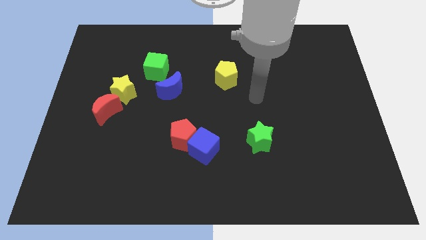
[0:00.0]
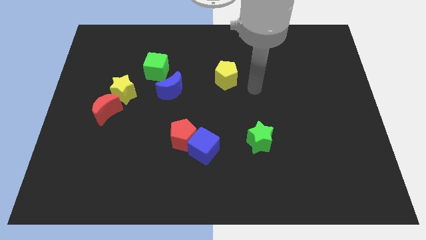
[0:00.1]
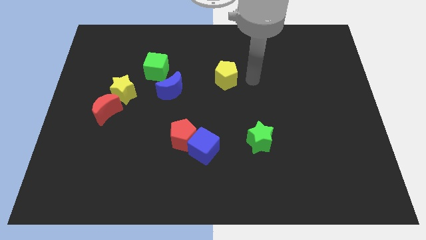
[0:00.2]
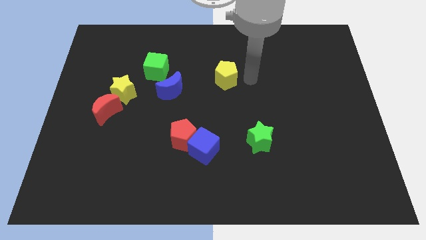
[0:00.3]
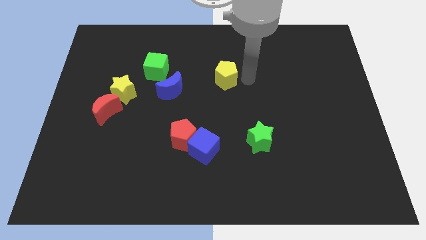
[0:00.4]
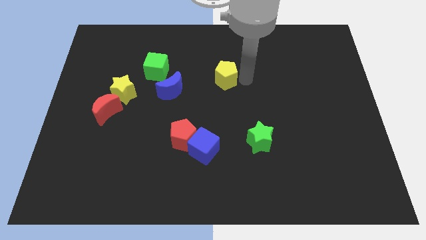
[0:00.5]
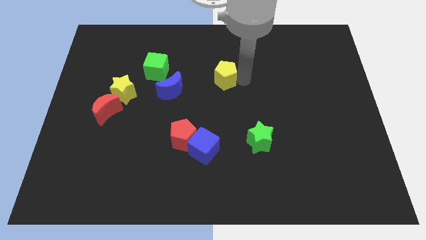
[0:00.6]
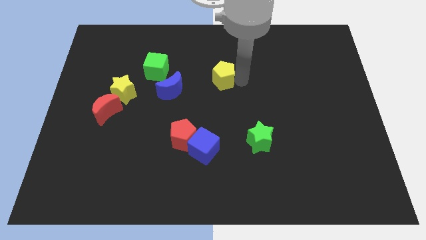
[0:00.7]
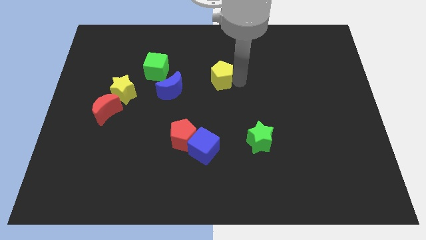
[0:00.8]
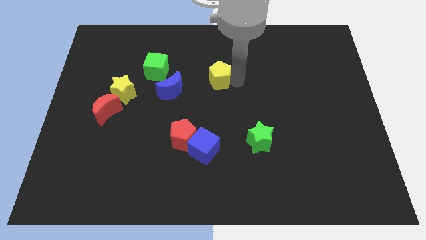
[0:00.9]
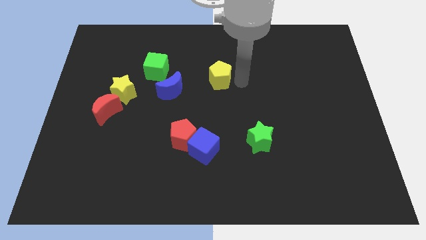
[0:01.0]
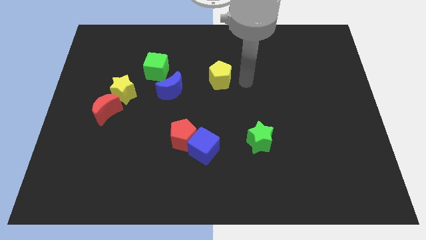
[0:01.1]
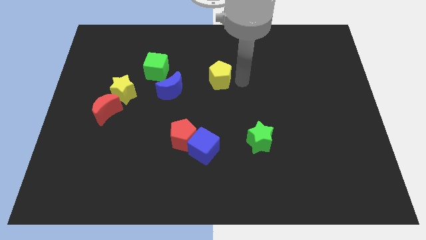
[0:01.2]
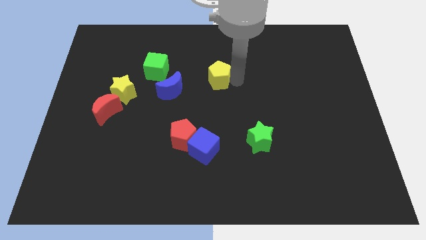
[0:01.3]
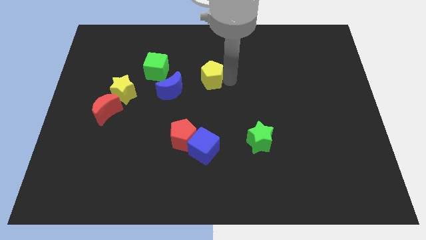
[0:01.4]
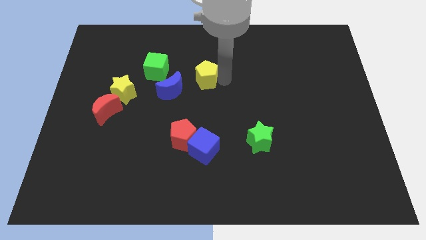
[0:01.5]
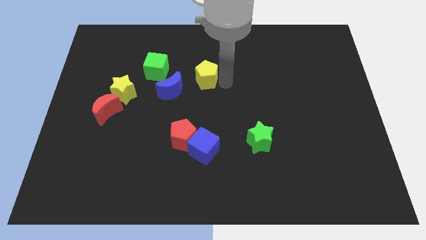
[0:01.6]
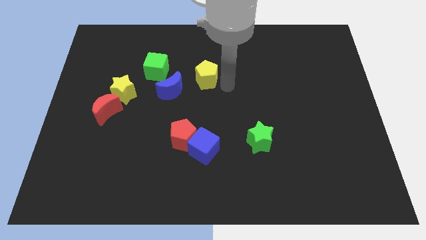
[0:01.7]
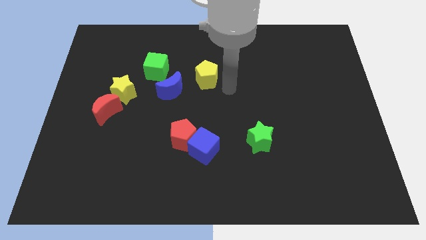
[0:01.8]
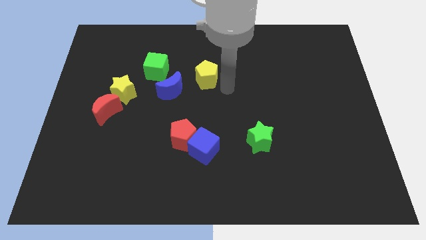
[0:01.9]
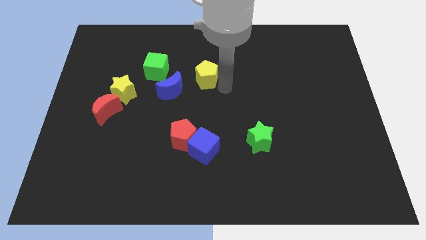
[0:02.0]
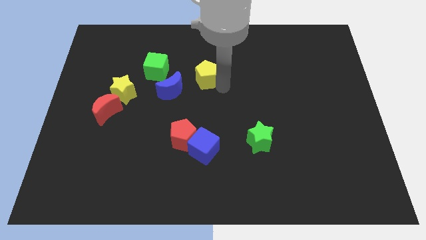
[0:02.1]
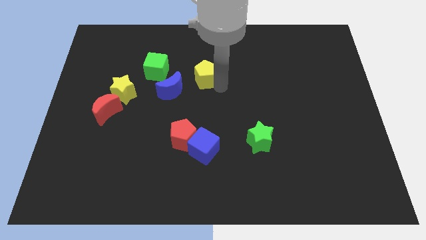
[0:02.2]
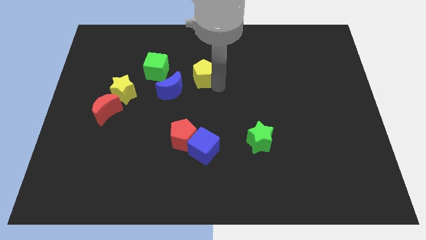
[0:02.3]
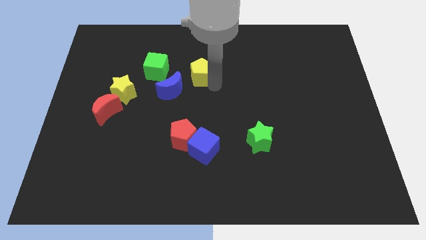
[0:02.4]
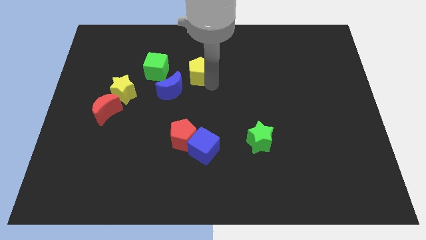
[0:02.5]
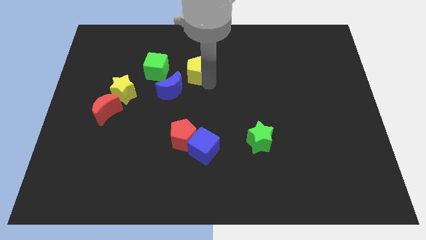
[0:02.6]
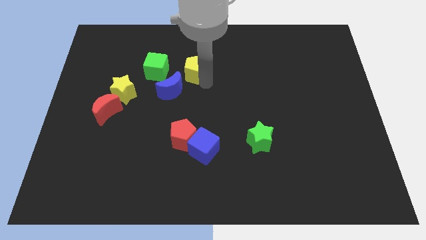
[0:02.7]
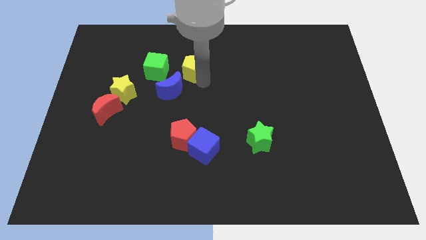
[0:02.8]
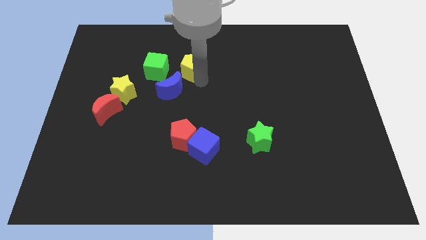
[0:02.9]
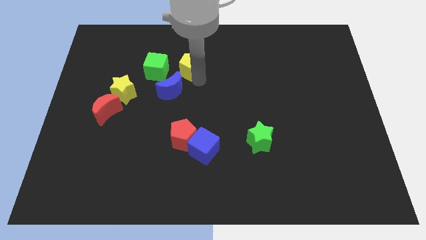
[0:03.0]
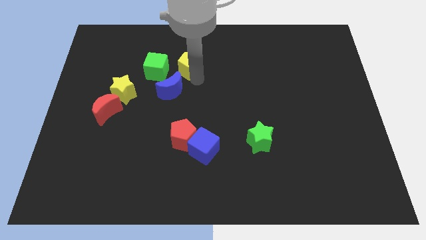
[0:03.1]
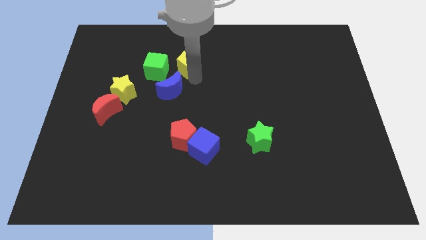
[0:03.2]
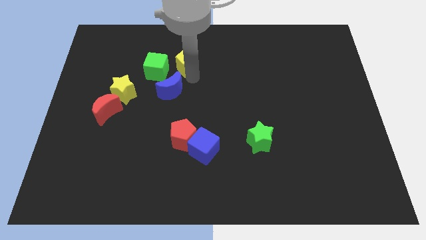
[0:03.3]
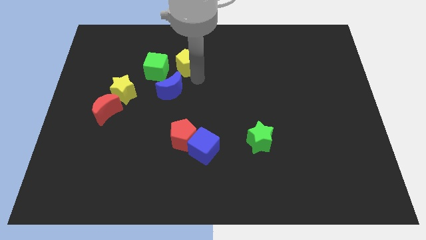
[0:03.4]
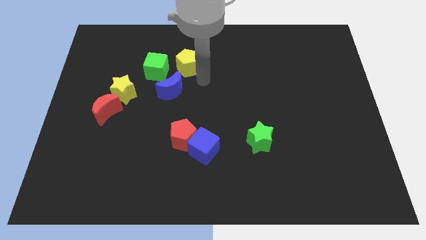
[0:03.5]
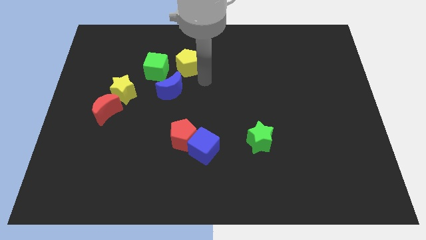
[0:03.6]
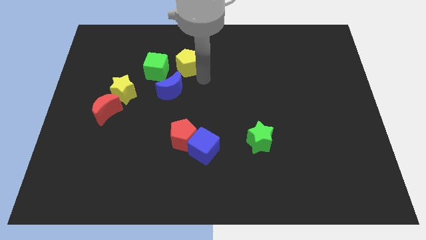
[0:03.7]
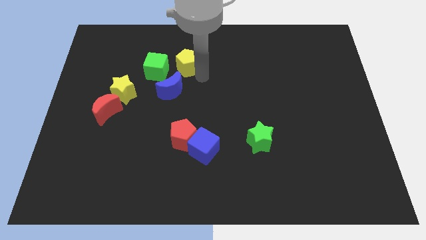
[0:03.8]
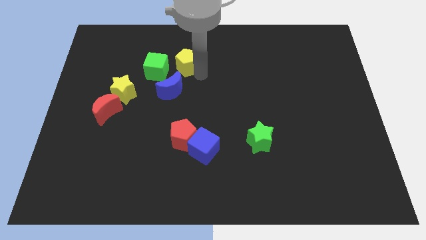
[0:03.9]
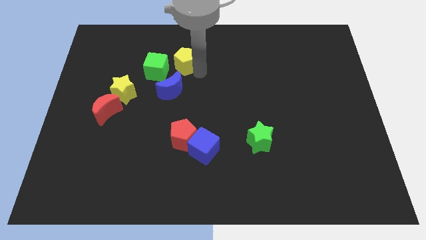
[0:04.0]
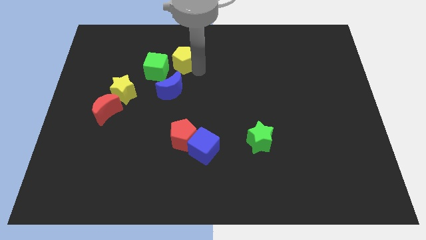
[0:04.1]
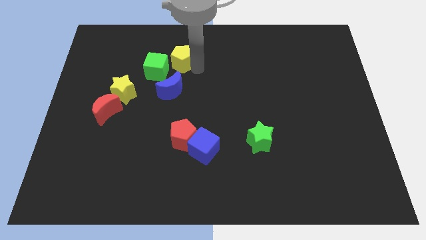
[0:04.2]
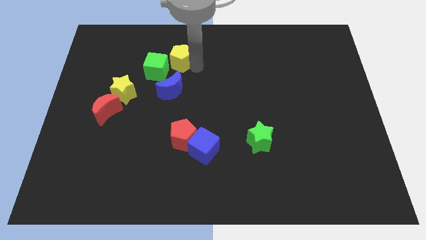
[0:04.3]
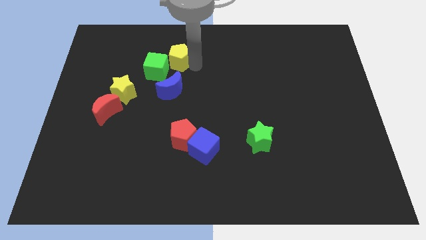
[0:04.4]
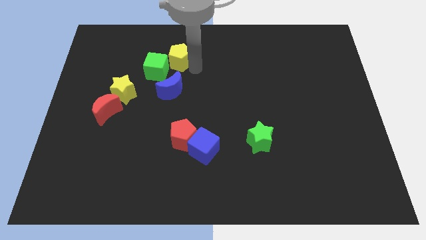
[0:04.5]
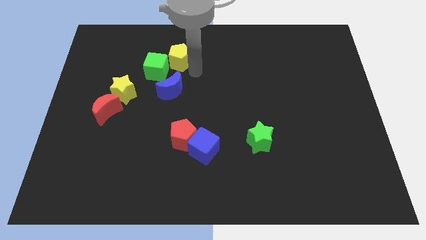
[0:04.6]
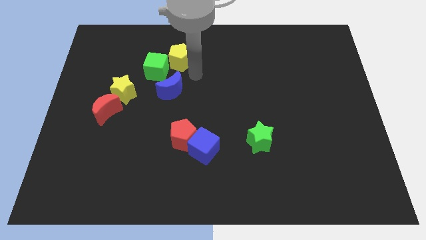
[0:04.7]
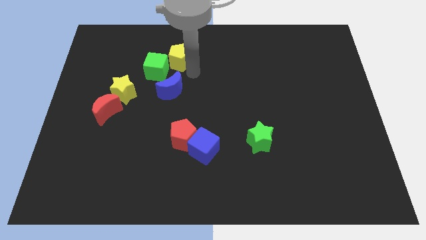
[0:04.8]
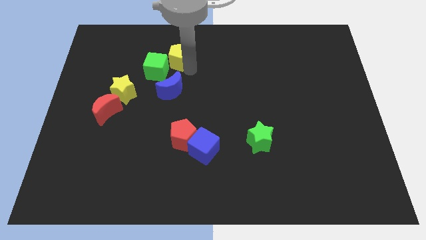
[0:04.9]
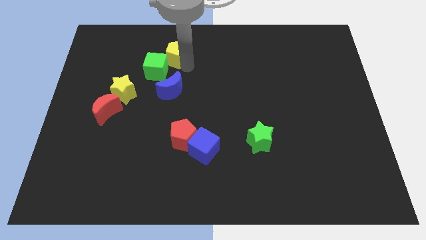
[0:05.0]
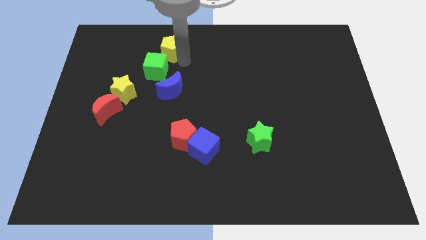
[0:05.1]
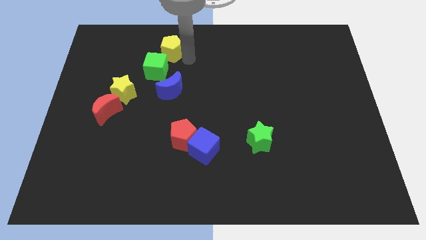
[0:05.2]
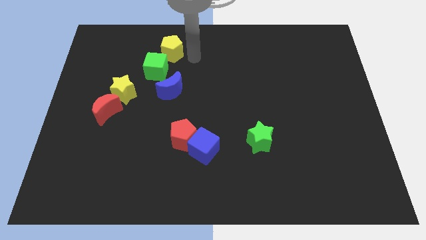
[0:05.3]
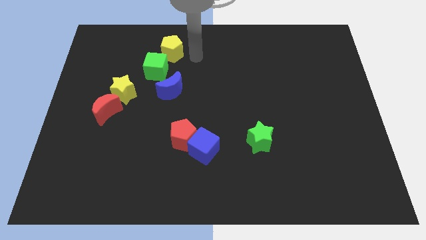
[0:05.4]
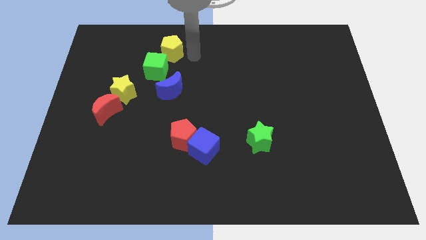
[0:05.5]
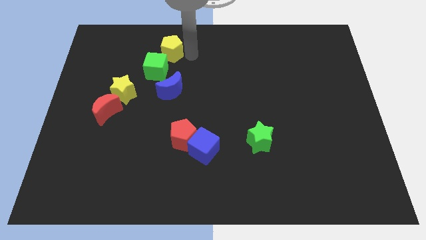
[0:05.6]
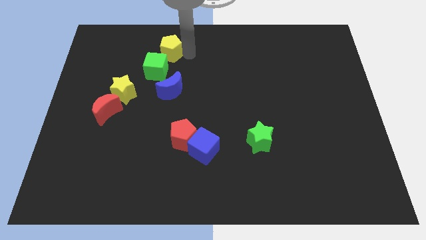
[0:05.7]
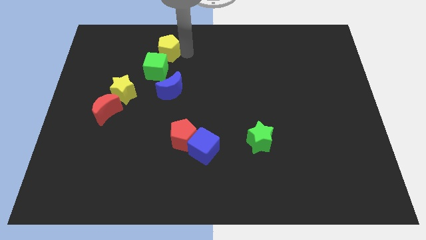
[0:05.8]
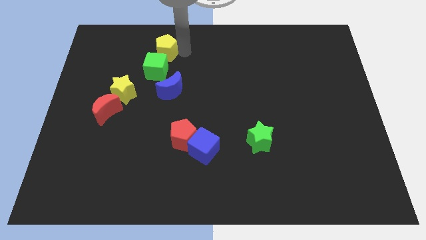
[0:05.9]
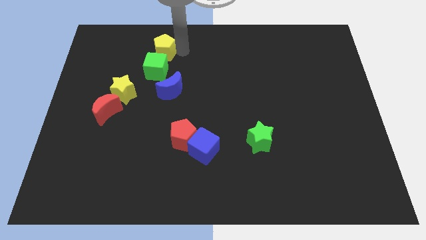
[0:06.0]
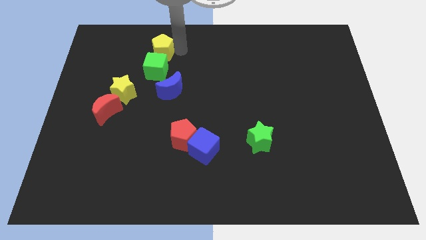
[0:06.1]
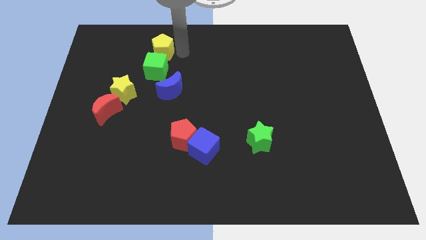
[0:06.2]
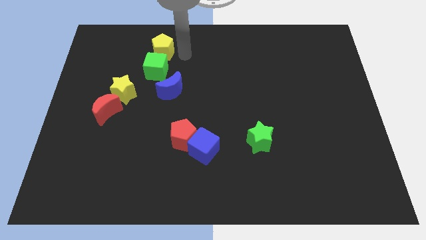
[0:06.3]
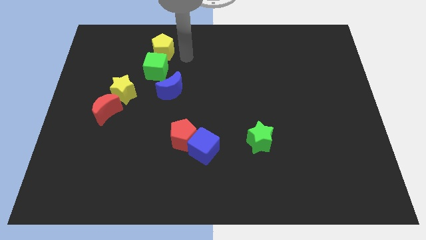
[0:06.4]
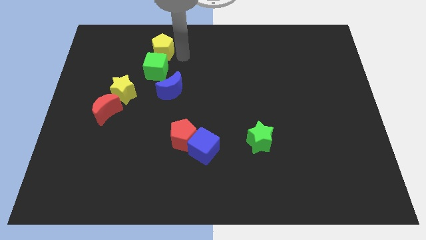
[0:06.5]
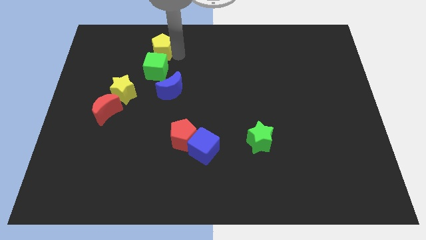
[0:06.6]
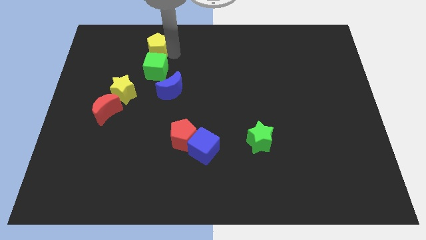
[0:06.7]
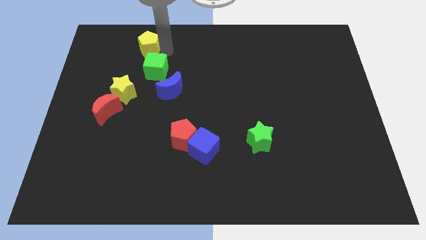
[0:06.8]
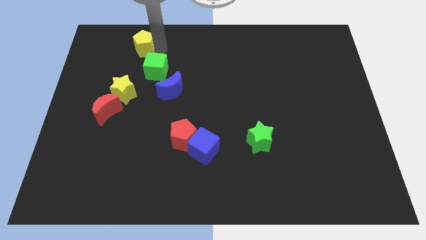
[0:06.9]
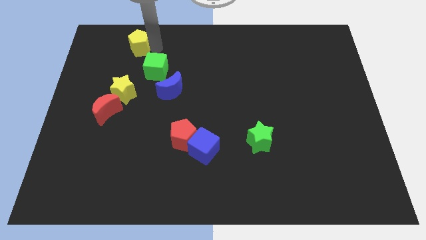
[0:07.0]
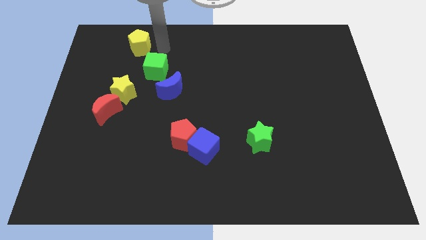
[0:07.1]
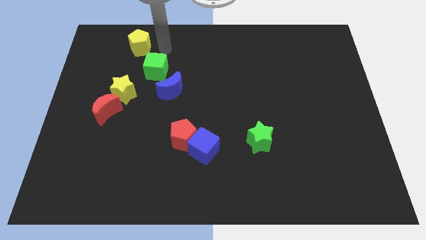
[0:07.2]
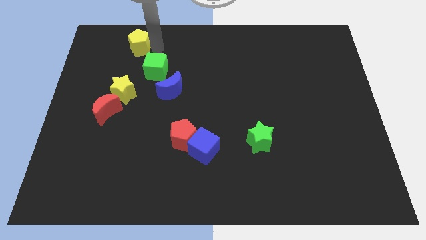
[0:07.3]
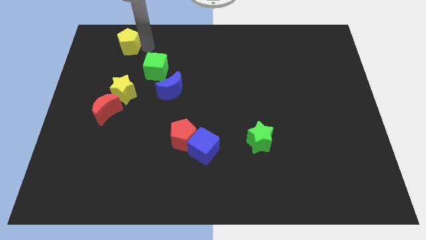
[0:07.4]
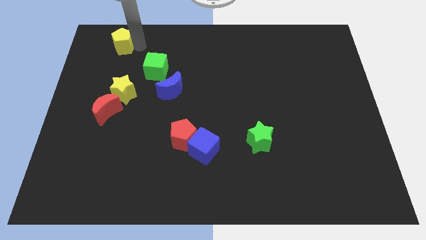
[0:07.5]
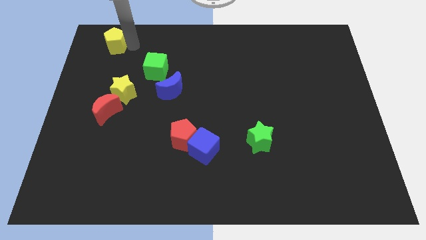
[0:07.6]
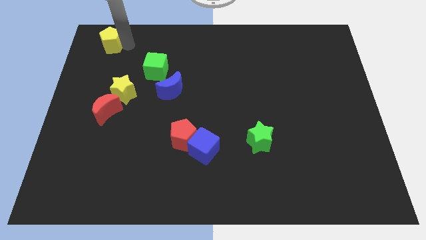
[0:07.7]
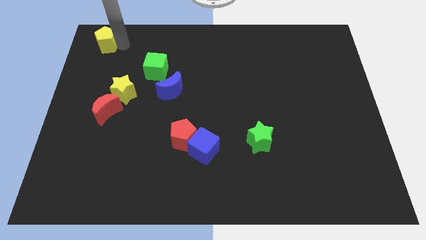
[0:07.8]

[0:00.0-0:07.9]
slide the yellow pentagon to the upper left corner
